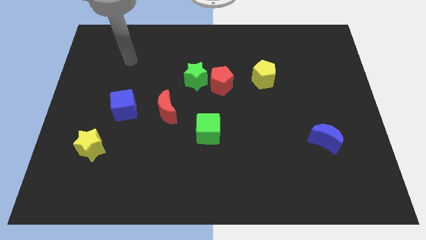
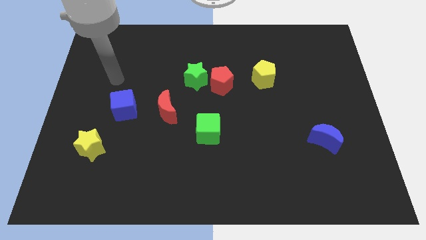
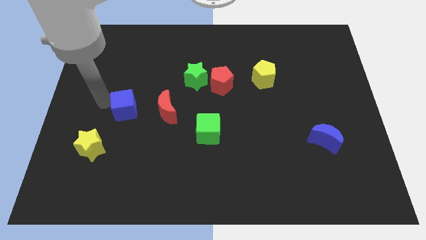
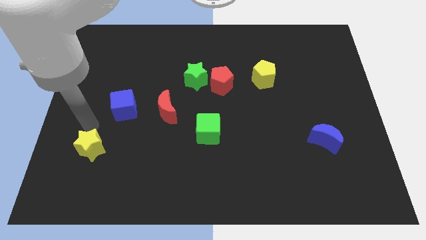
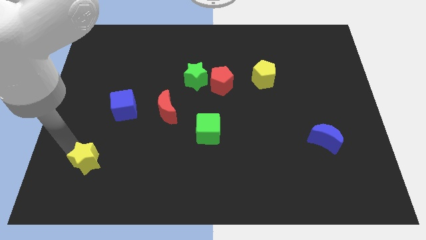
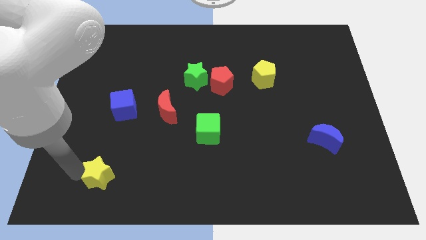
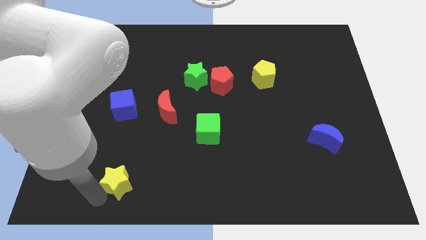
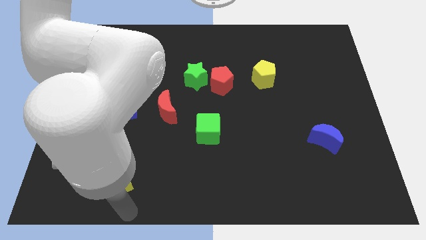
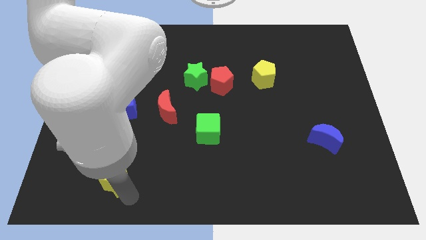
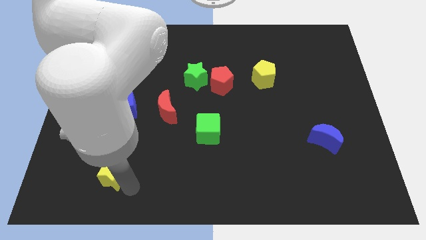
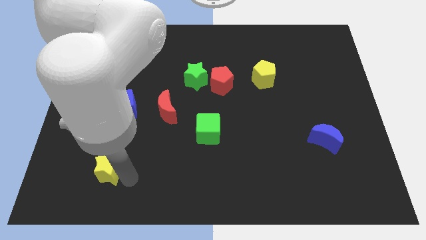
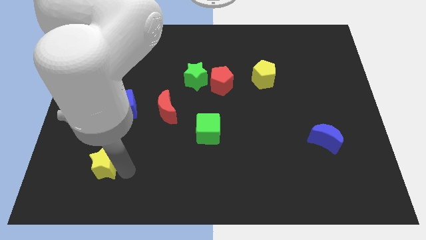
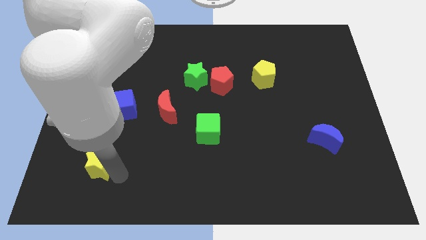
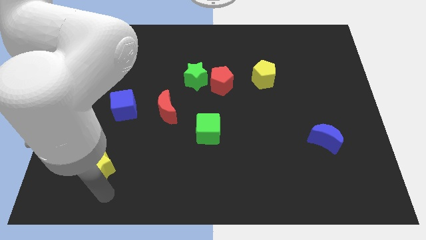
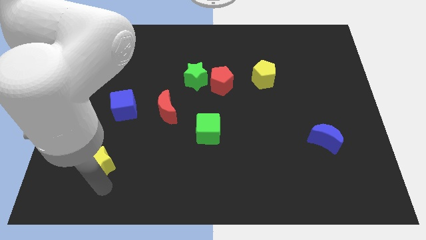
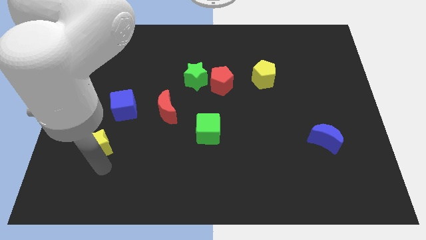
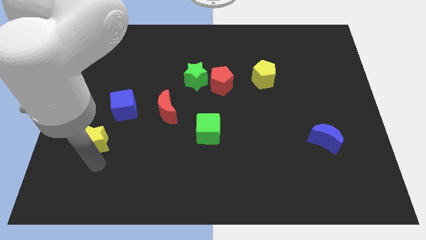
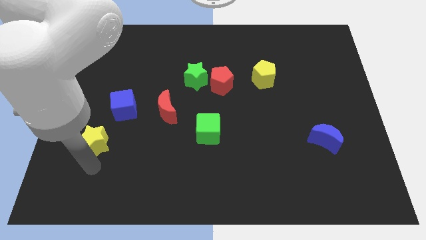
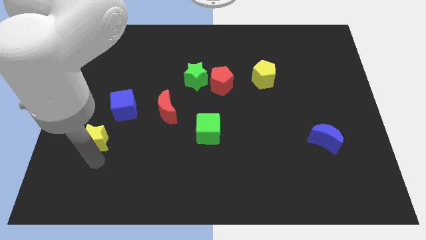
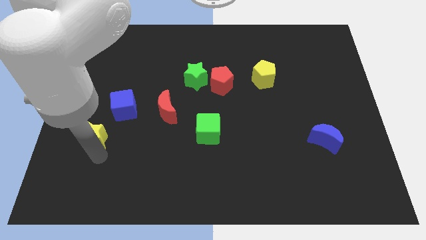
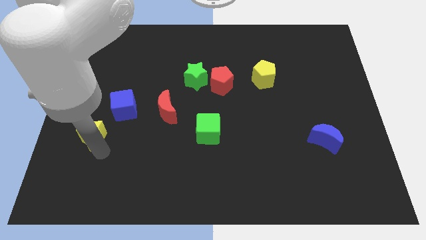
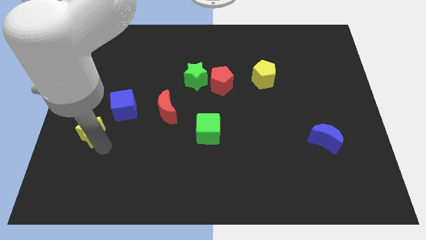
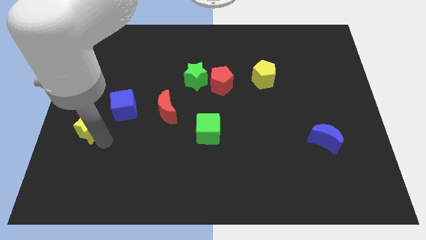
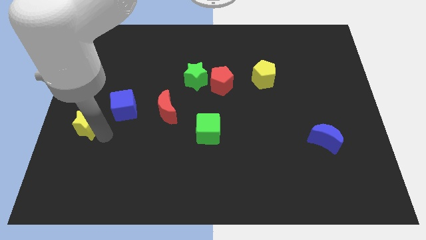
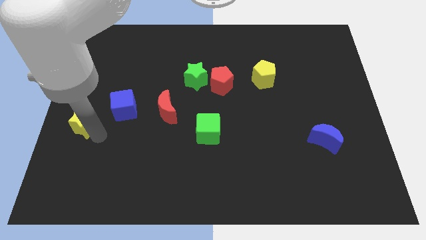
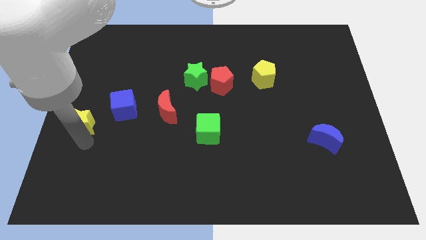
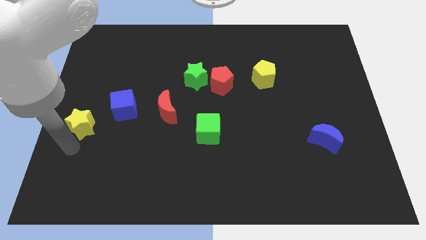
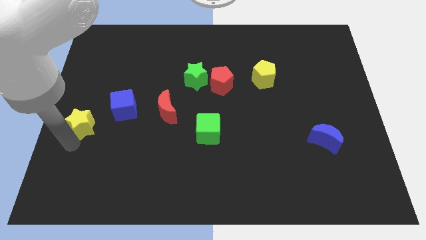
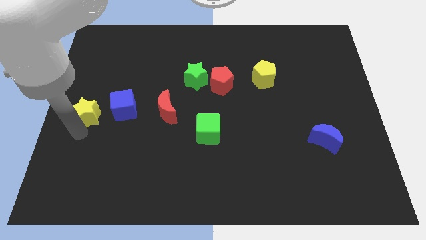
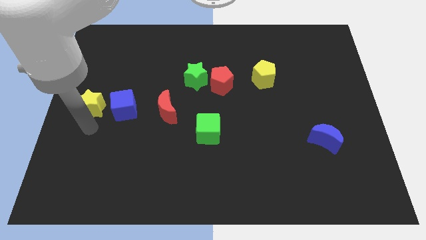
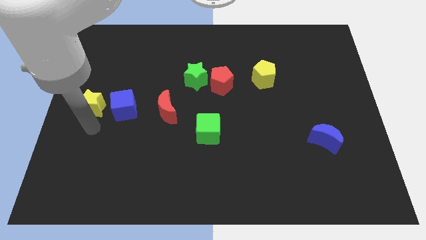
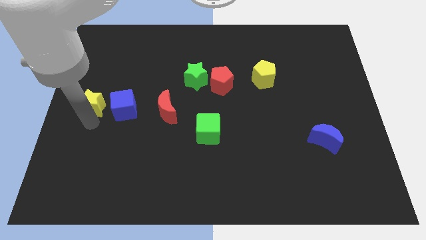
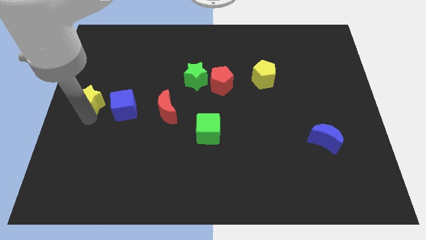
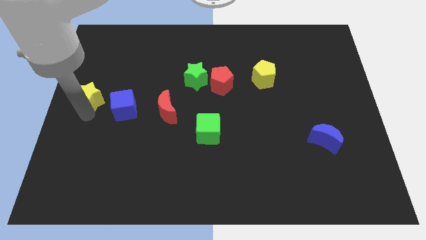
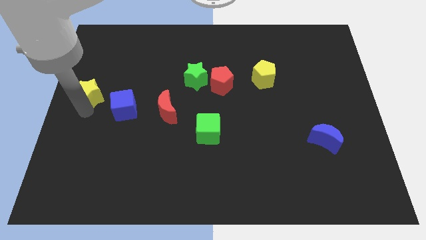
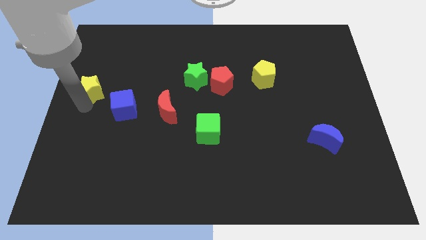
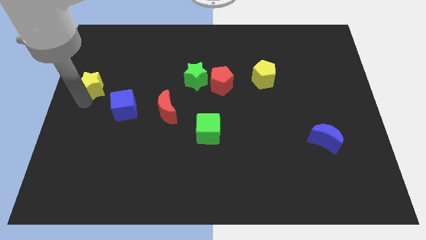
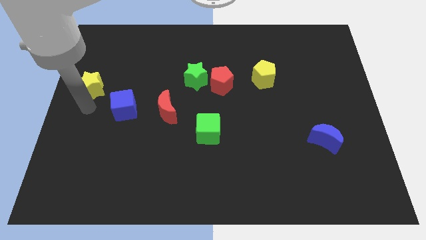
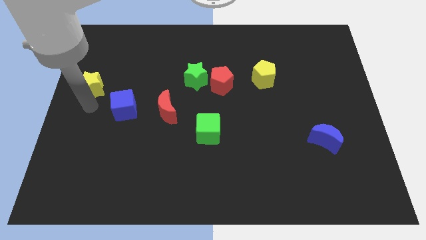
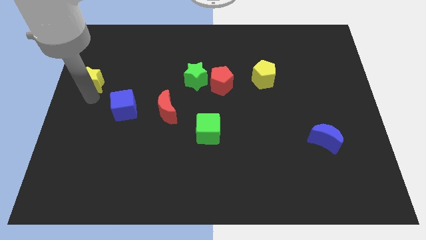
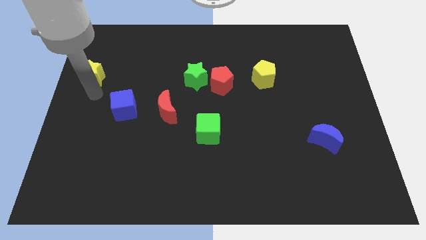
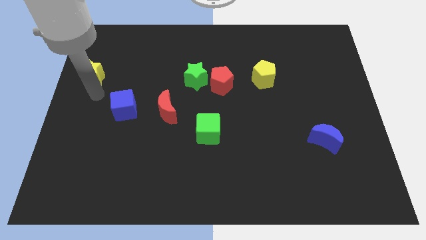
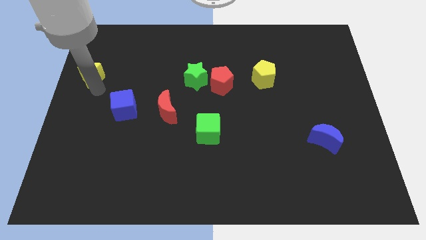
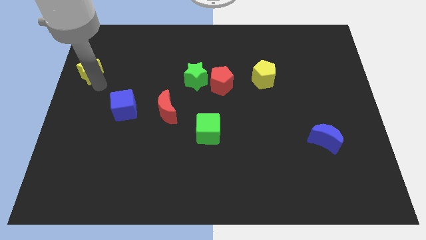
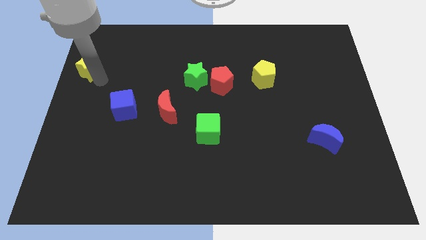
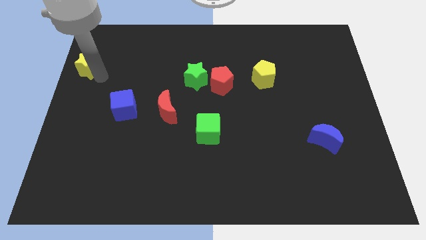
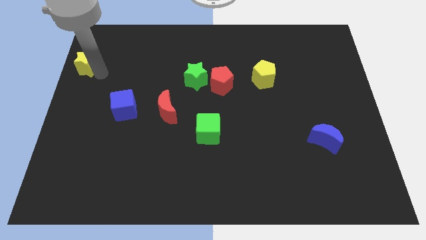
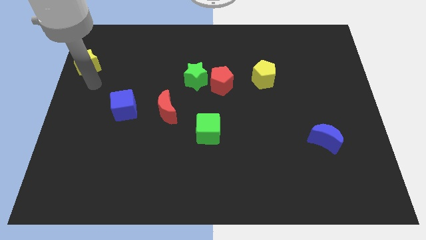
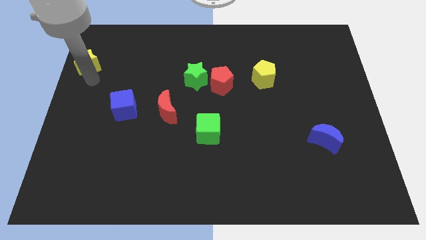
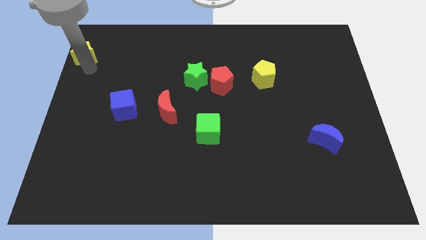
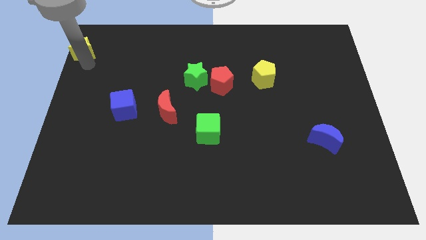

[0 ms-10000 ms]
slide the yellow star to the top left of the board

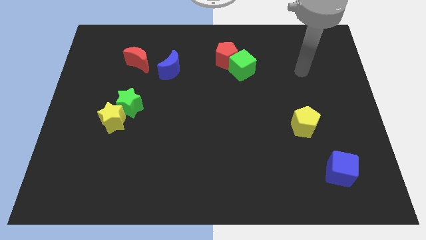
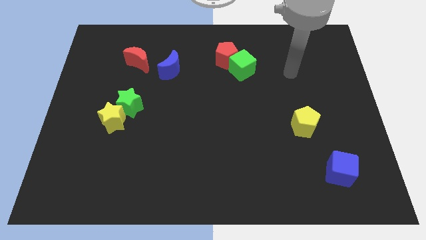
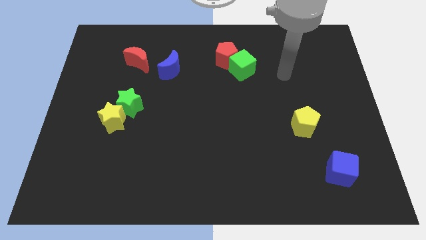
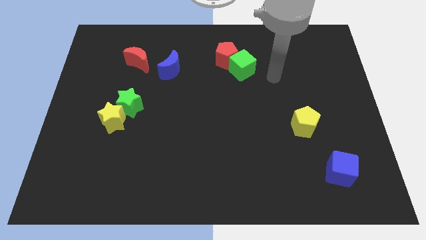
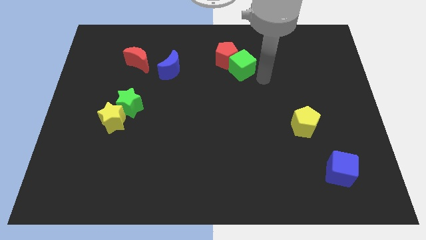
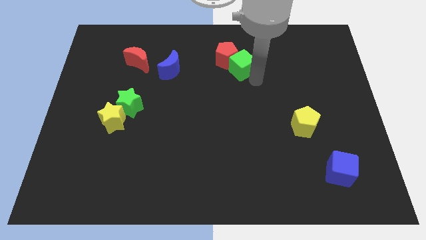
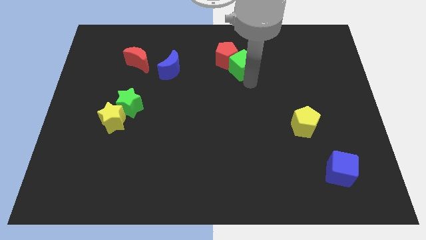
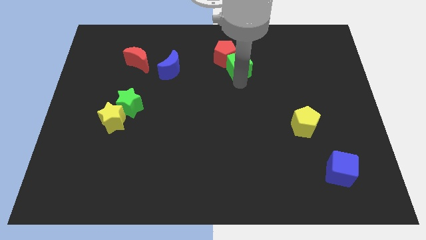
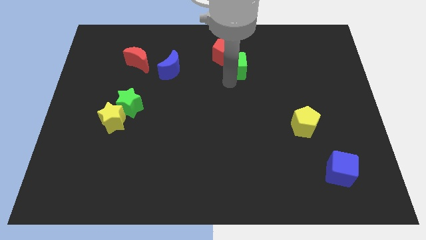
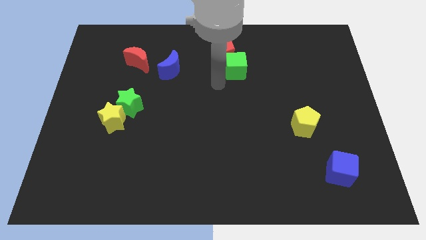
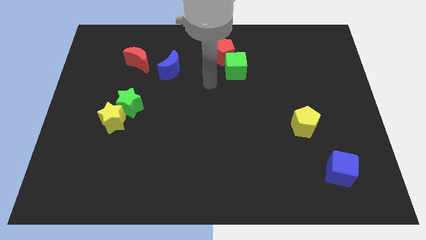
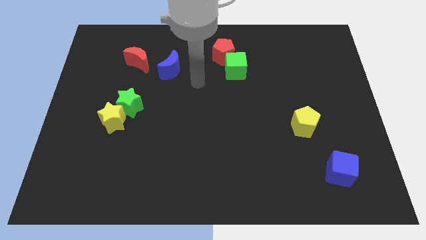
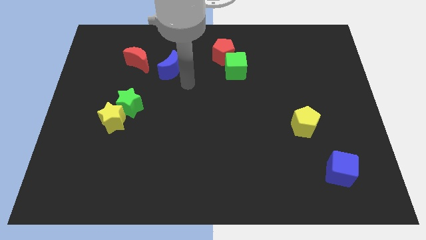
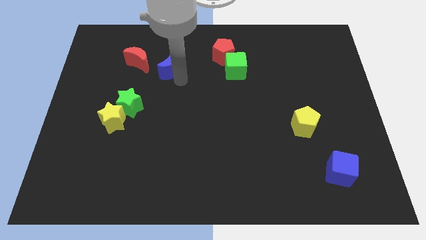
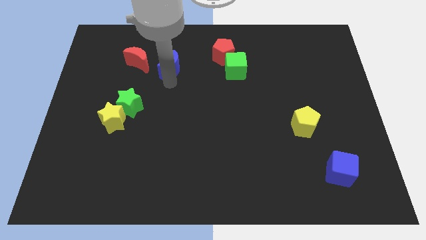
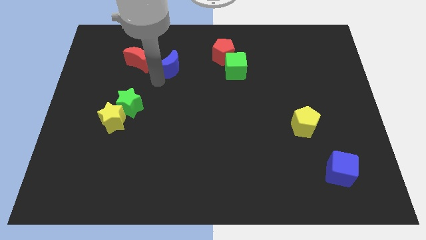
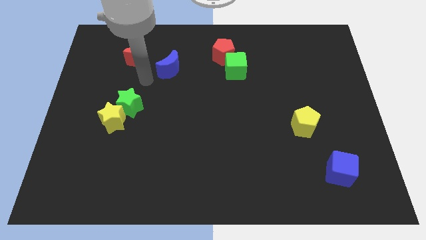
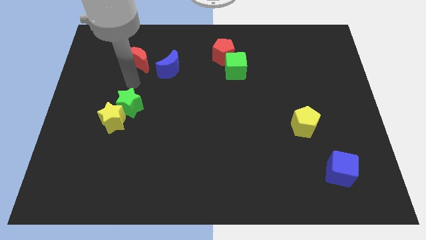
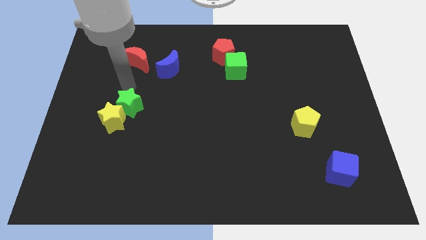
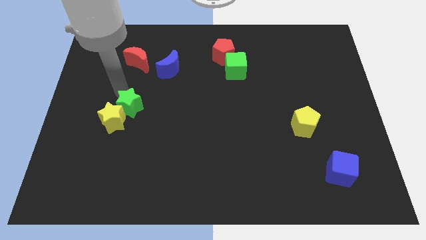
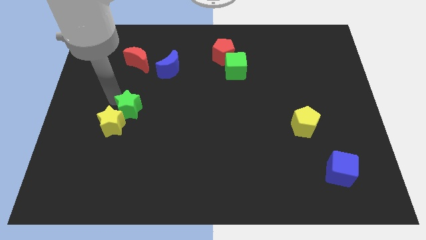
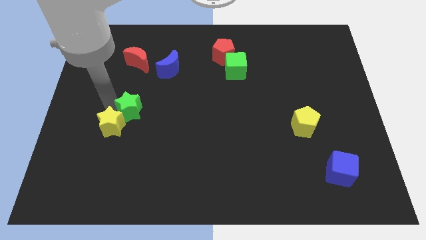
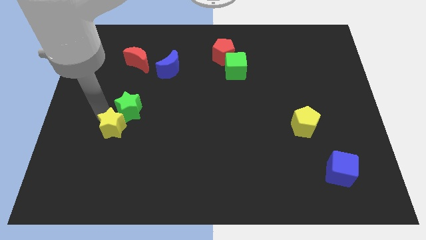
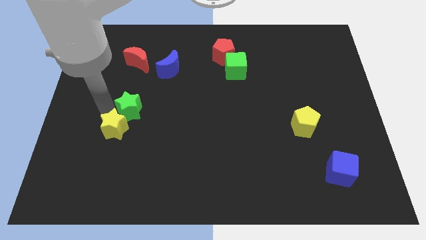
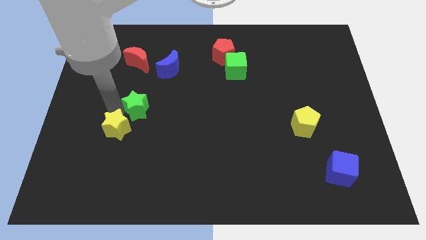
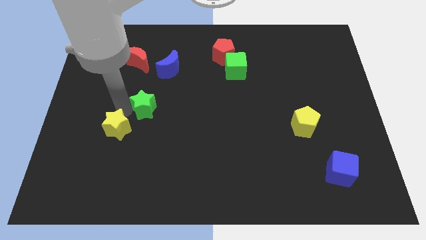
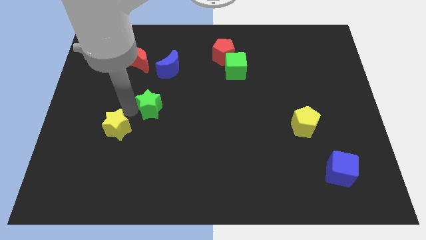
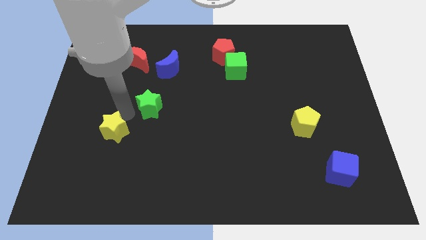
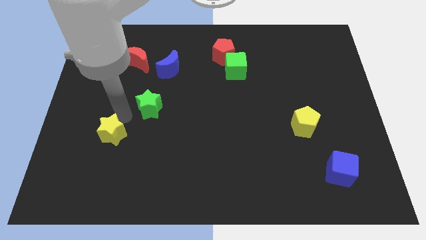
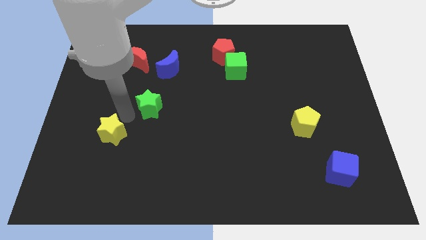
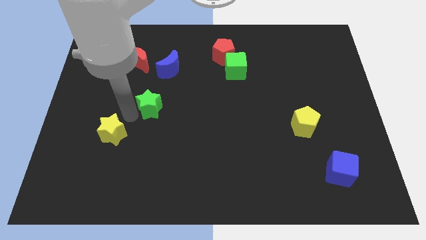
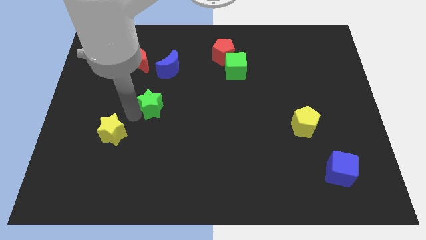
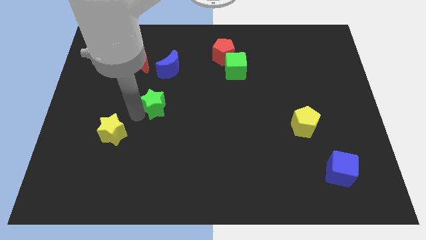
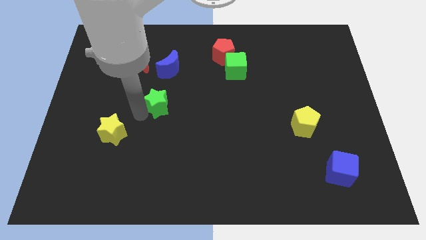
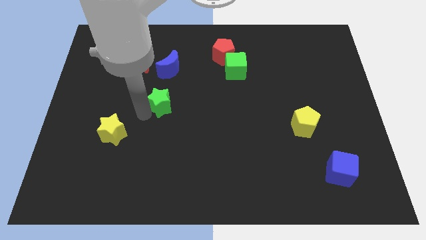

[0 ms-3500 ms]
push the green star to the center
